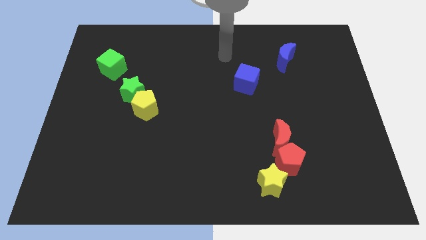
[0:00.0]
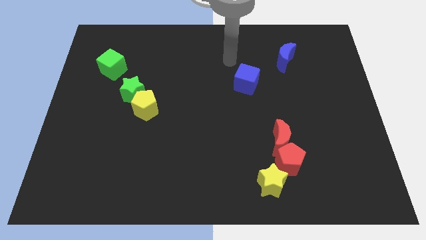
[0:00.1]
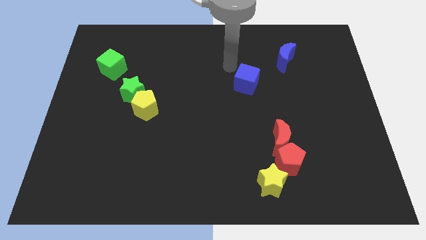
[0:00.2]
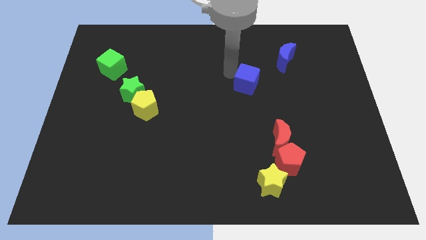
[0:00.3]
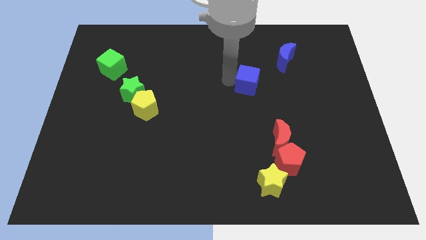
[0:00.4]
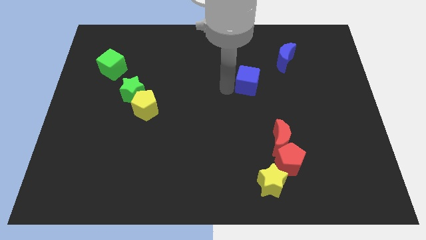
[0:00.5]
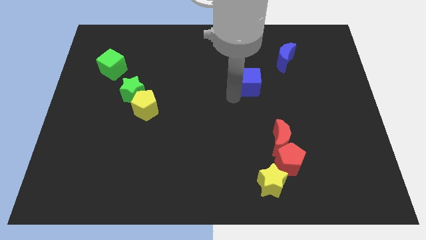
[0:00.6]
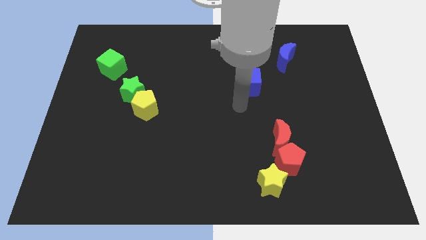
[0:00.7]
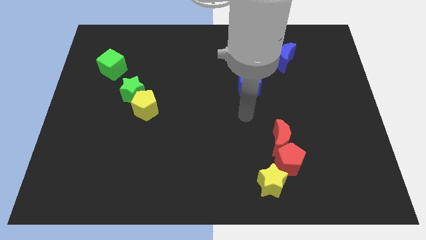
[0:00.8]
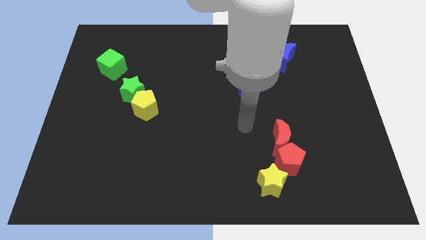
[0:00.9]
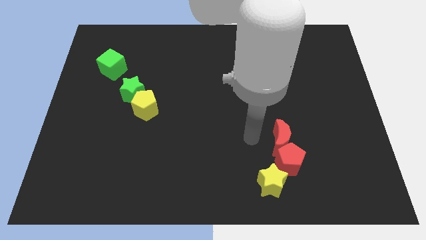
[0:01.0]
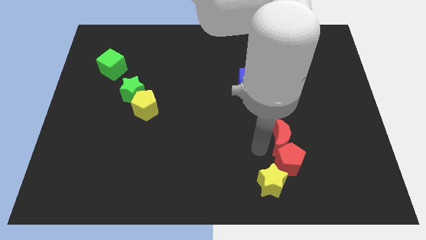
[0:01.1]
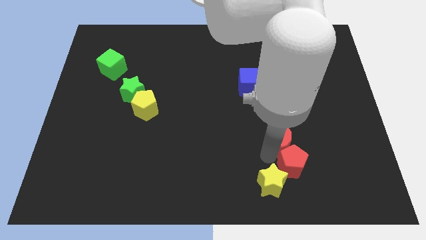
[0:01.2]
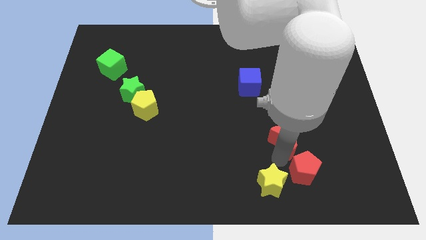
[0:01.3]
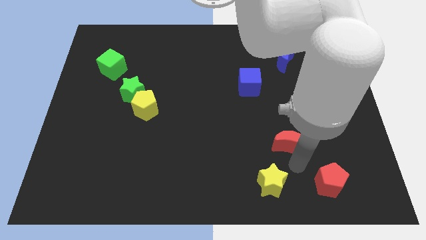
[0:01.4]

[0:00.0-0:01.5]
move the red moon away from the red pentagon

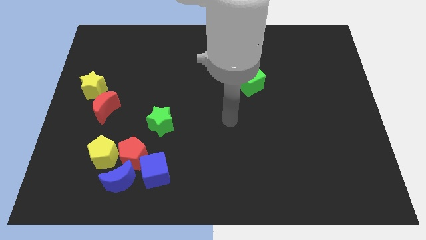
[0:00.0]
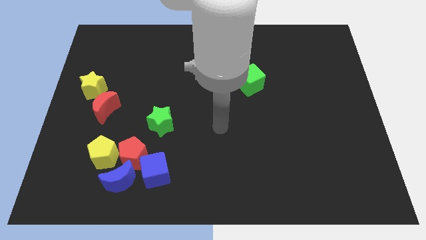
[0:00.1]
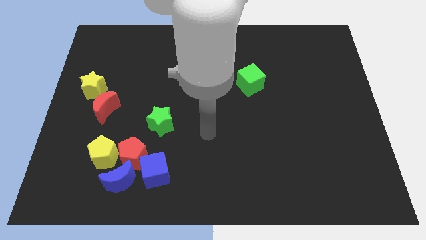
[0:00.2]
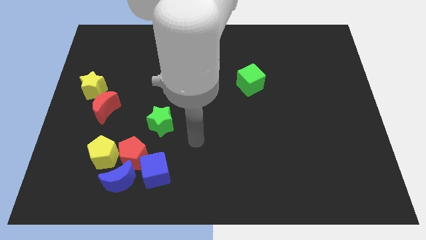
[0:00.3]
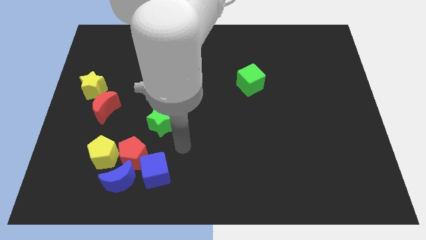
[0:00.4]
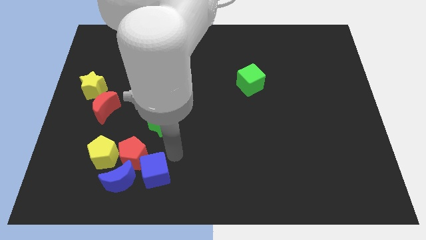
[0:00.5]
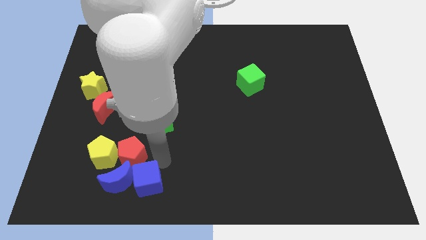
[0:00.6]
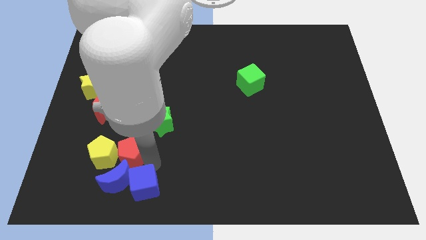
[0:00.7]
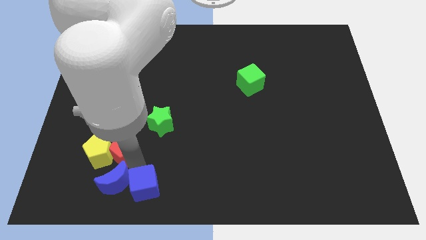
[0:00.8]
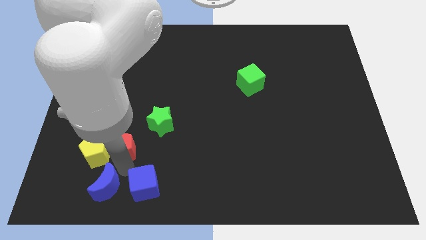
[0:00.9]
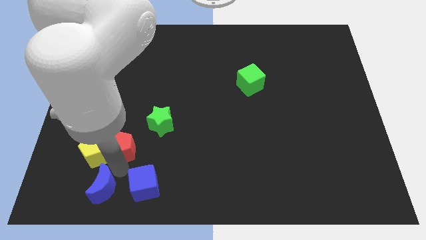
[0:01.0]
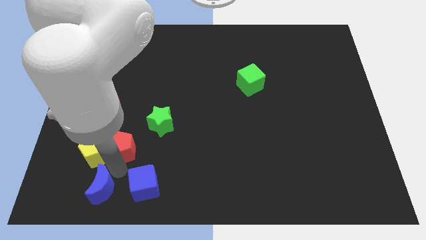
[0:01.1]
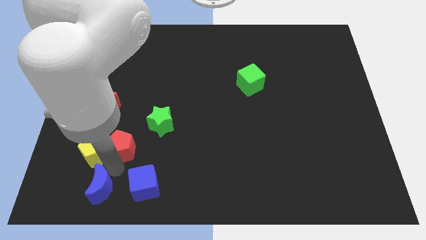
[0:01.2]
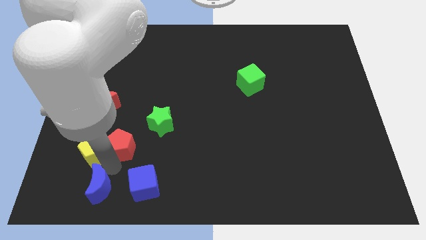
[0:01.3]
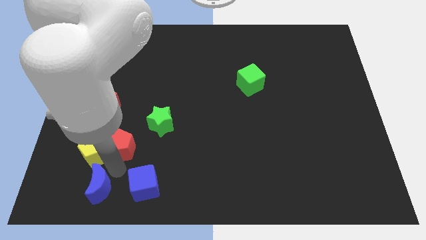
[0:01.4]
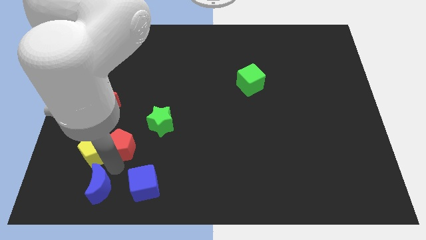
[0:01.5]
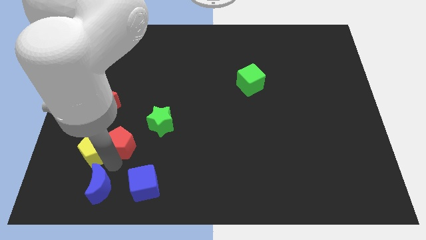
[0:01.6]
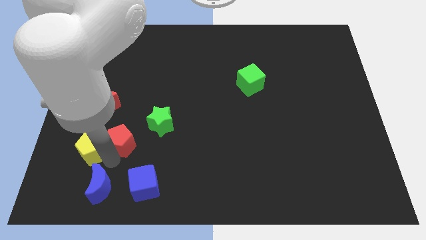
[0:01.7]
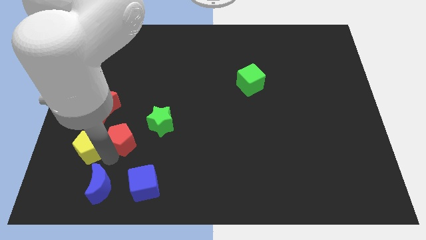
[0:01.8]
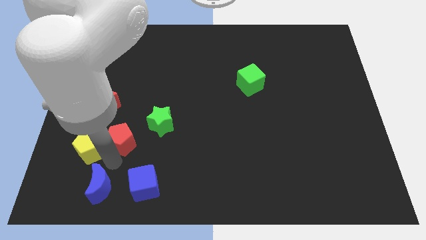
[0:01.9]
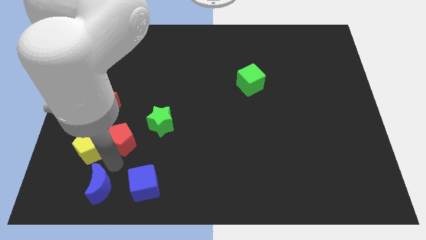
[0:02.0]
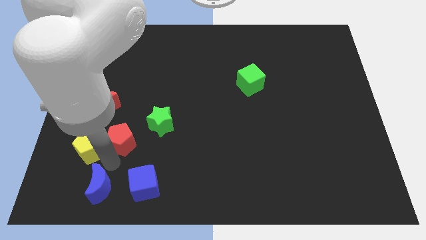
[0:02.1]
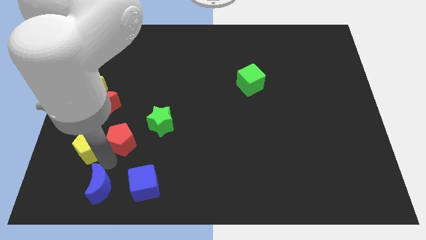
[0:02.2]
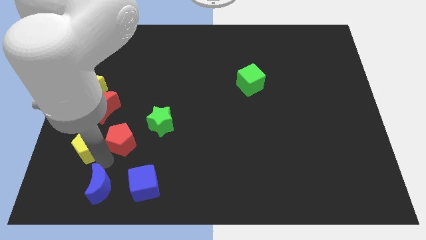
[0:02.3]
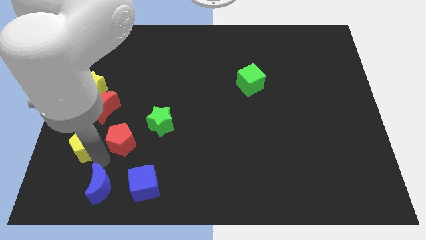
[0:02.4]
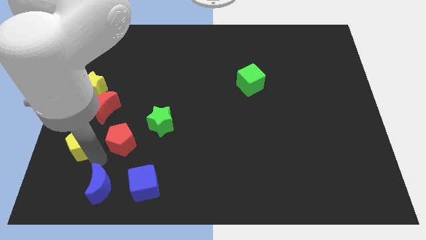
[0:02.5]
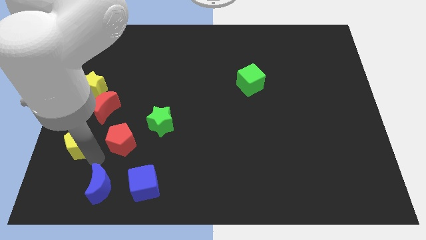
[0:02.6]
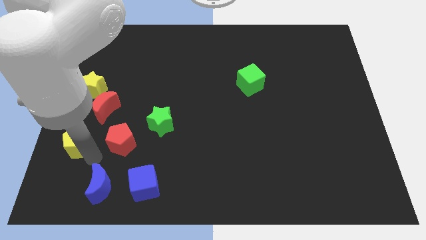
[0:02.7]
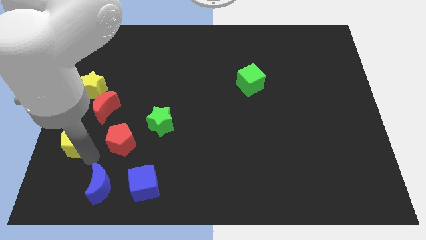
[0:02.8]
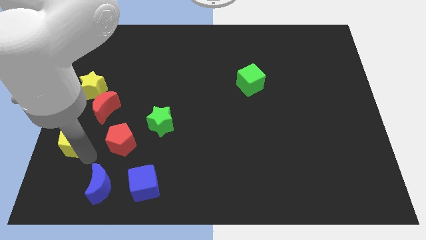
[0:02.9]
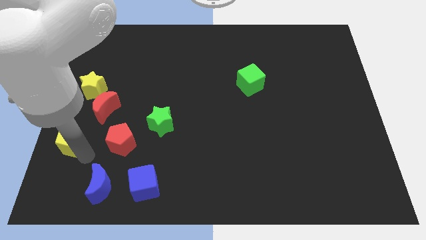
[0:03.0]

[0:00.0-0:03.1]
move the yellow pentagon away from the red pentagon and blue moon

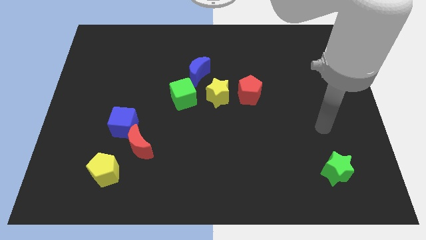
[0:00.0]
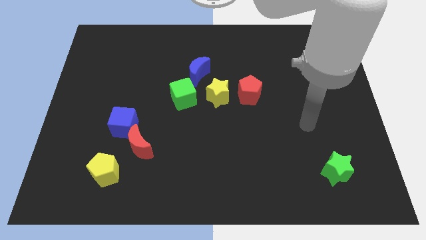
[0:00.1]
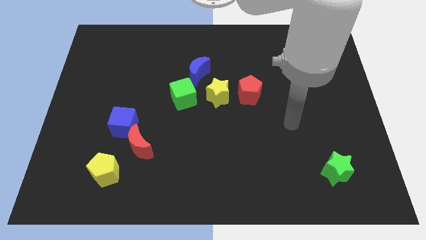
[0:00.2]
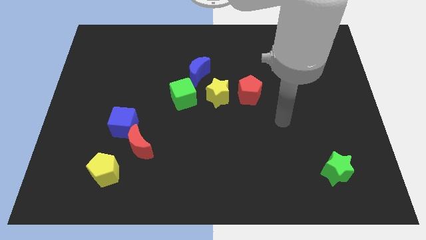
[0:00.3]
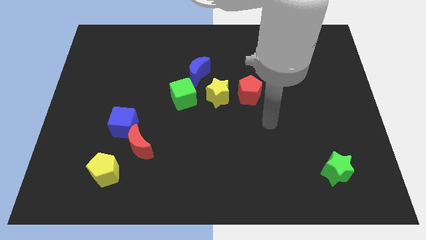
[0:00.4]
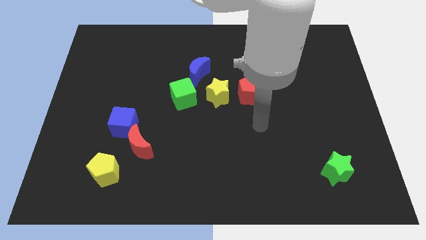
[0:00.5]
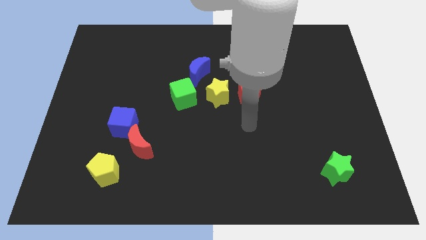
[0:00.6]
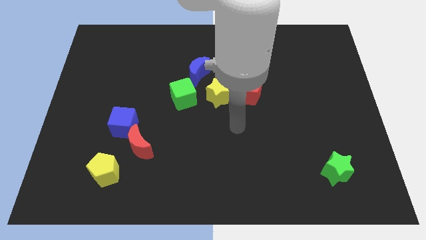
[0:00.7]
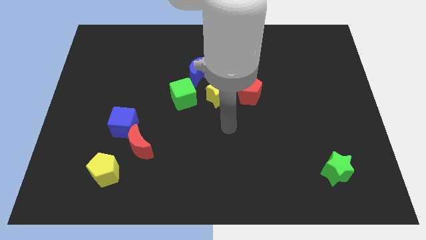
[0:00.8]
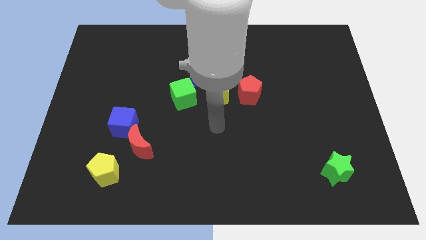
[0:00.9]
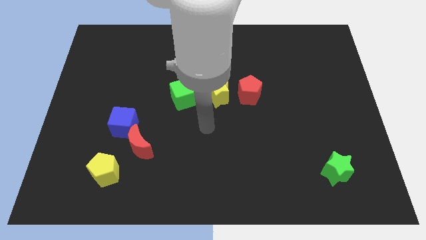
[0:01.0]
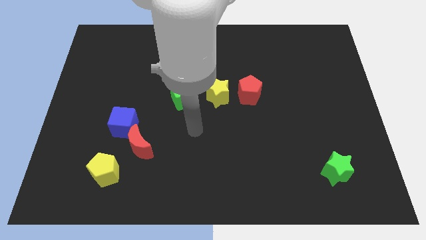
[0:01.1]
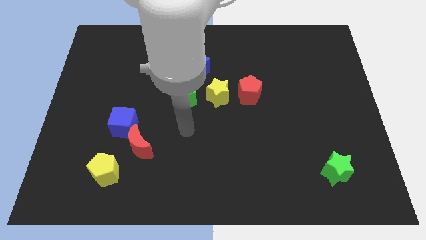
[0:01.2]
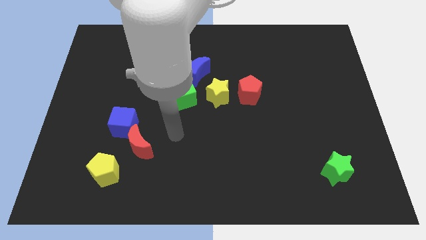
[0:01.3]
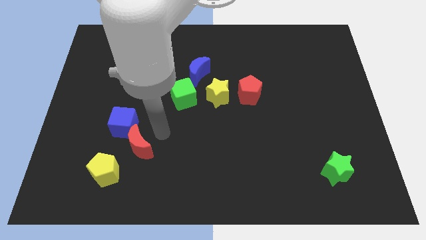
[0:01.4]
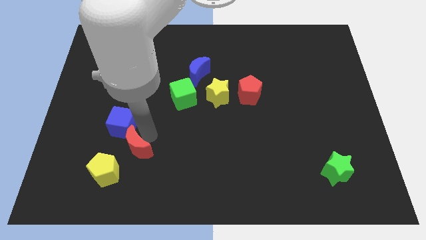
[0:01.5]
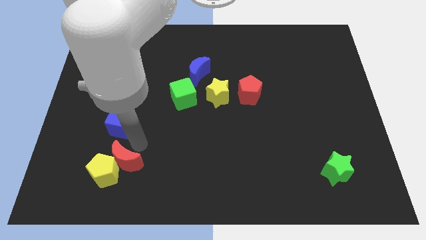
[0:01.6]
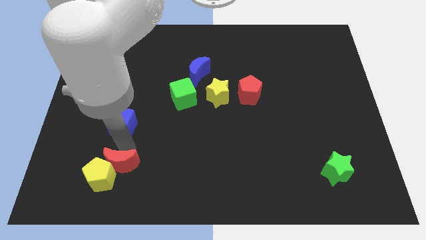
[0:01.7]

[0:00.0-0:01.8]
pull the blue cube apart from the red moon

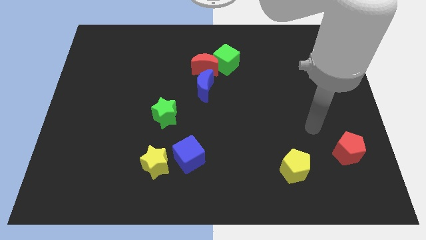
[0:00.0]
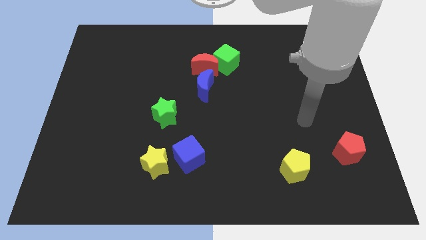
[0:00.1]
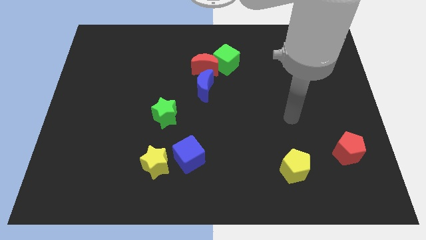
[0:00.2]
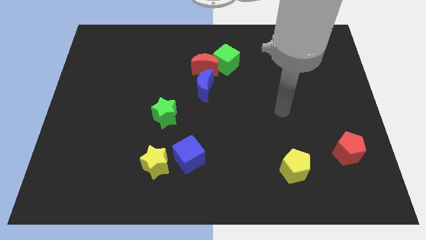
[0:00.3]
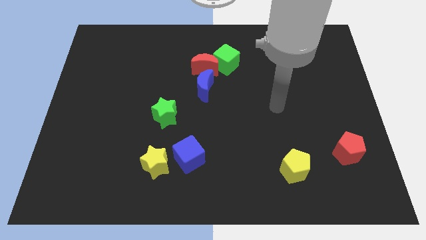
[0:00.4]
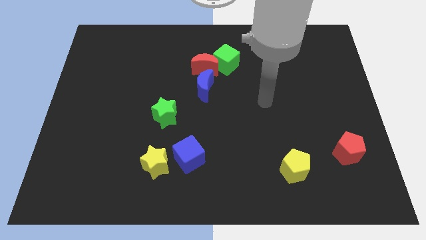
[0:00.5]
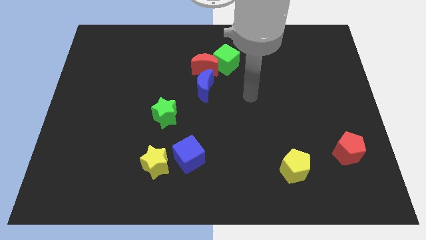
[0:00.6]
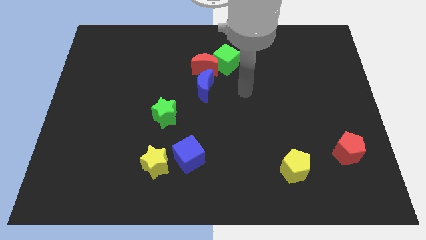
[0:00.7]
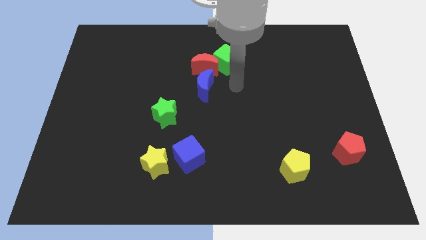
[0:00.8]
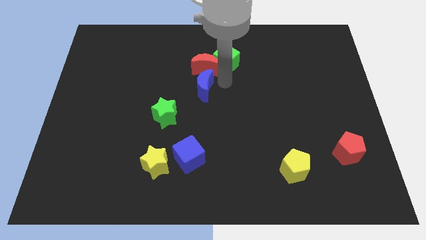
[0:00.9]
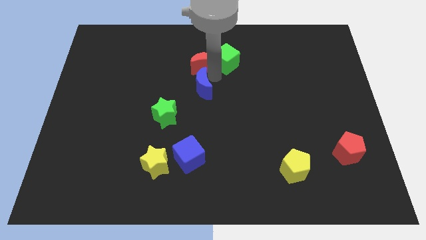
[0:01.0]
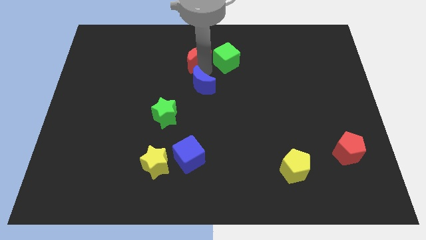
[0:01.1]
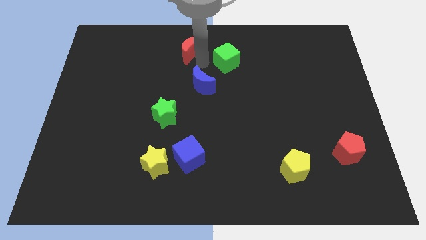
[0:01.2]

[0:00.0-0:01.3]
move the green cube away from the red moon

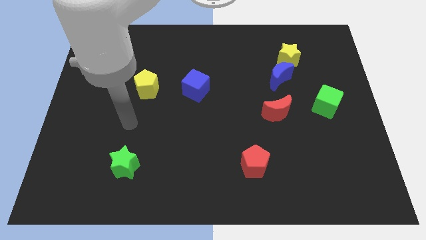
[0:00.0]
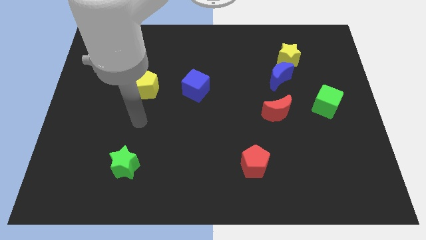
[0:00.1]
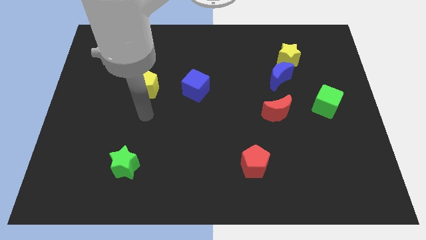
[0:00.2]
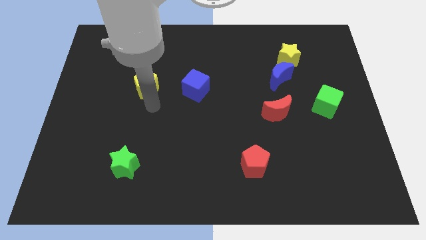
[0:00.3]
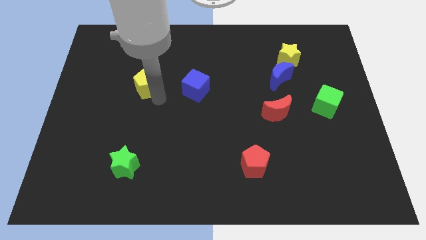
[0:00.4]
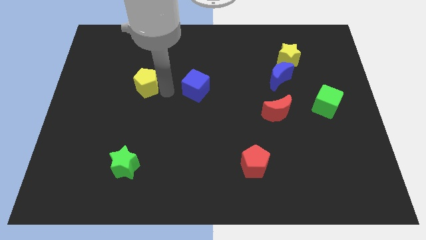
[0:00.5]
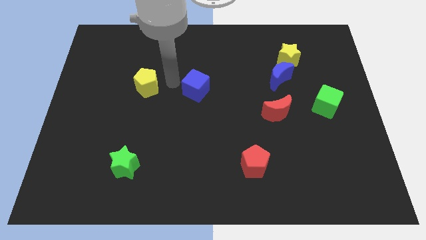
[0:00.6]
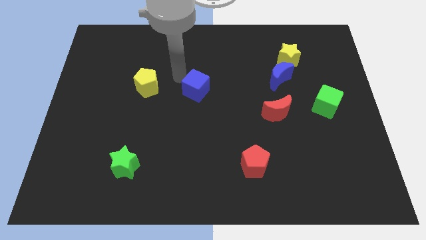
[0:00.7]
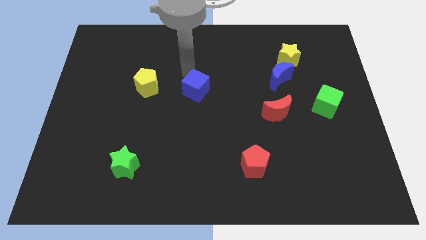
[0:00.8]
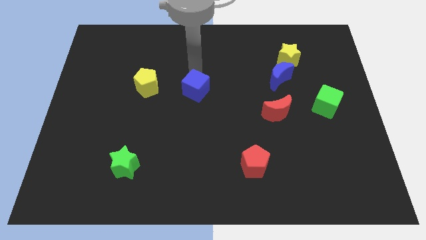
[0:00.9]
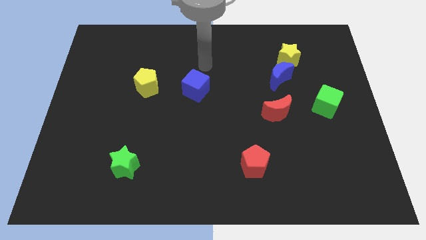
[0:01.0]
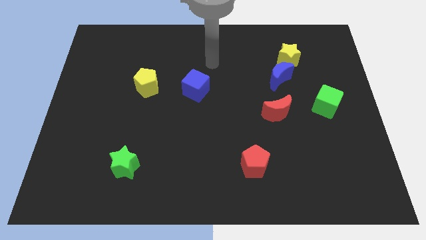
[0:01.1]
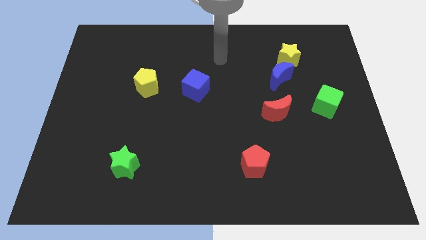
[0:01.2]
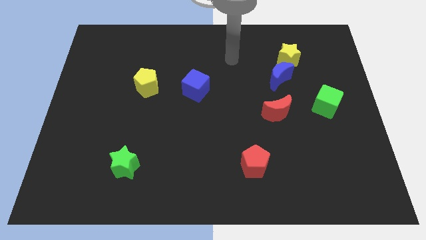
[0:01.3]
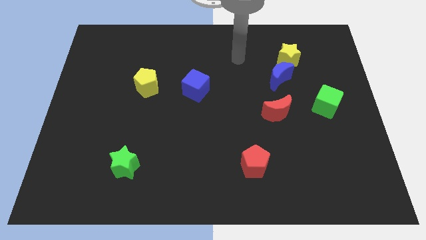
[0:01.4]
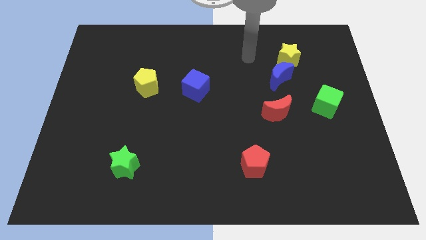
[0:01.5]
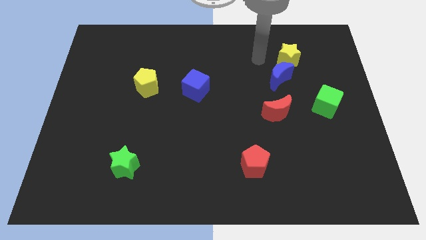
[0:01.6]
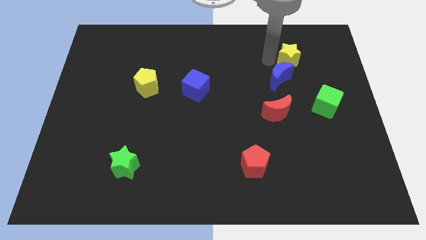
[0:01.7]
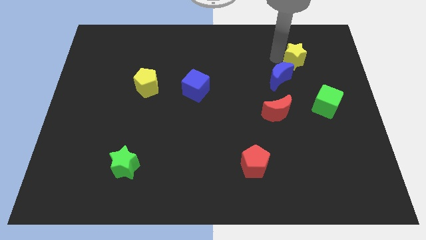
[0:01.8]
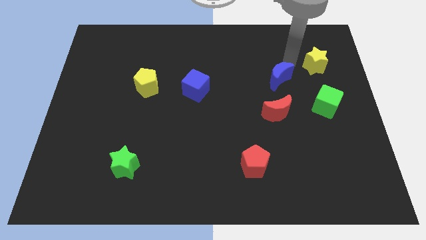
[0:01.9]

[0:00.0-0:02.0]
separate the blue moon from the yellow star
